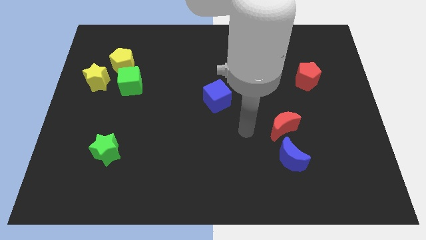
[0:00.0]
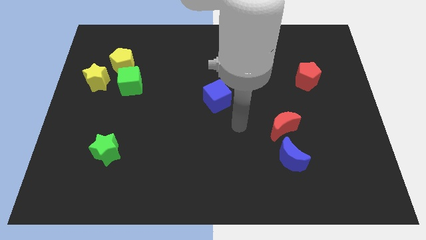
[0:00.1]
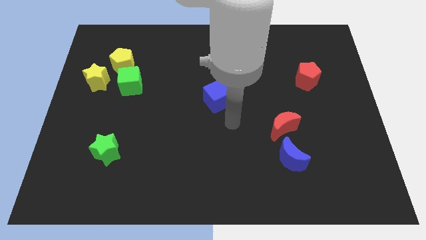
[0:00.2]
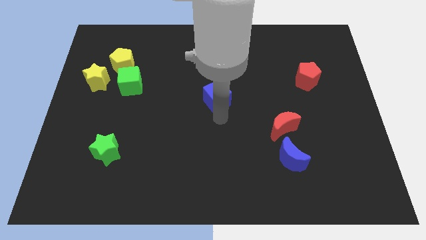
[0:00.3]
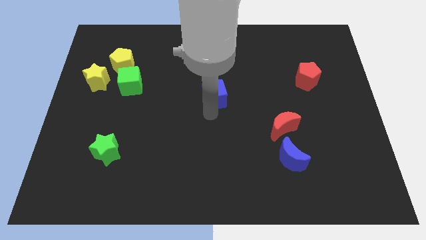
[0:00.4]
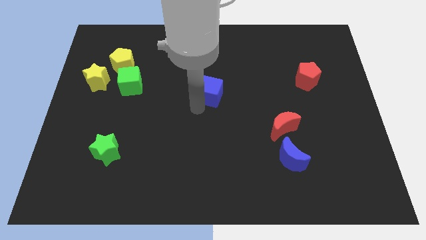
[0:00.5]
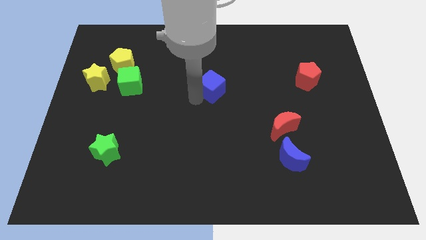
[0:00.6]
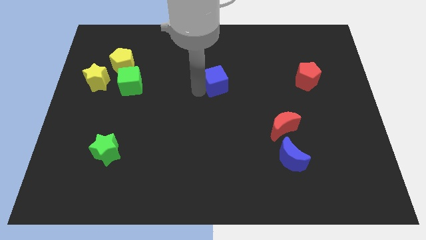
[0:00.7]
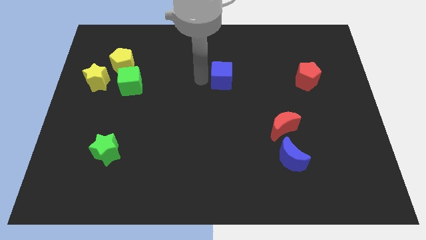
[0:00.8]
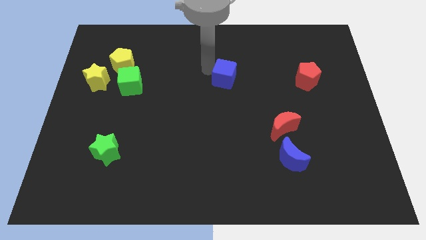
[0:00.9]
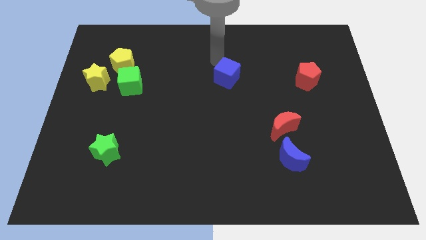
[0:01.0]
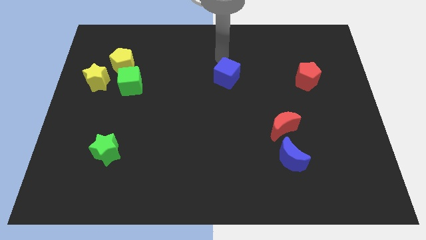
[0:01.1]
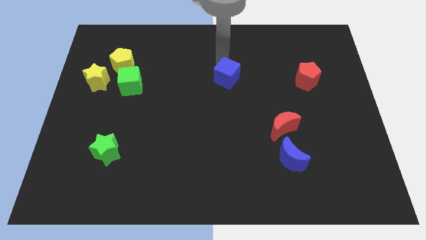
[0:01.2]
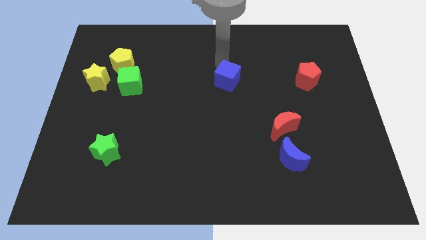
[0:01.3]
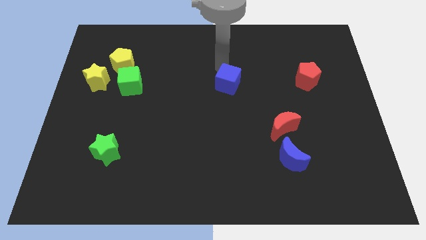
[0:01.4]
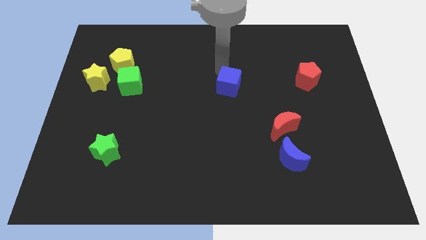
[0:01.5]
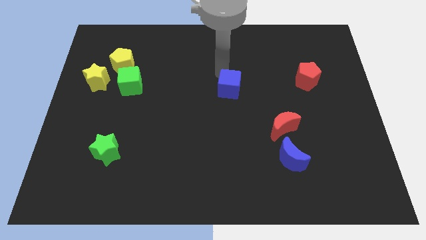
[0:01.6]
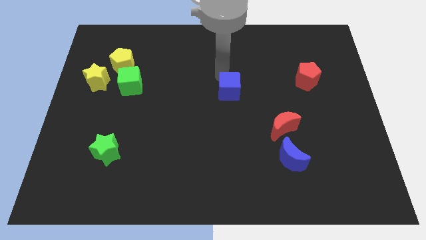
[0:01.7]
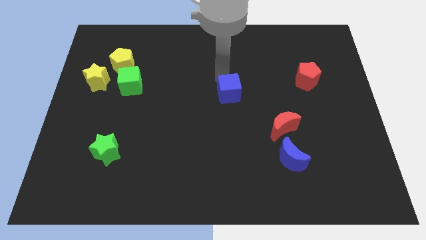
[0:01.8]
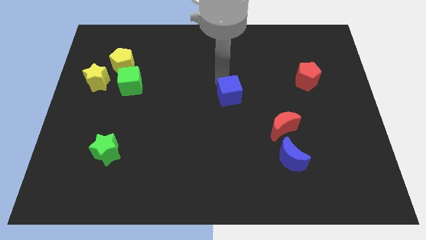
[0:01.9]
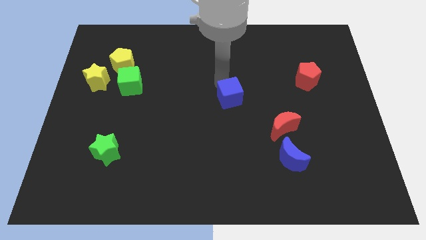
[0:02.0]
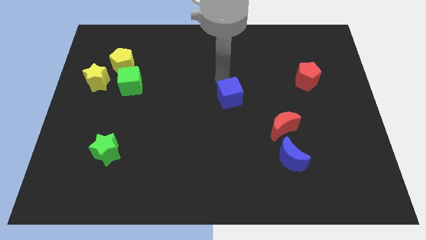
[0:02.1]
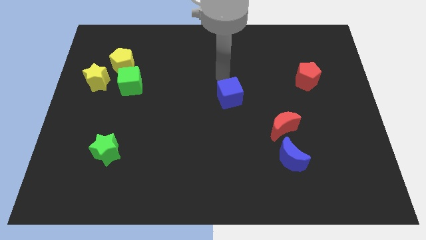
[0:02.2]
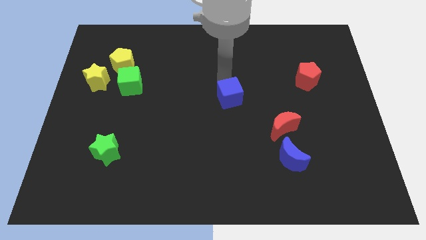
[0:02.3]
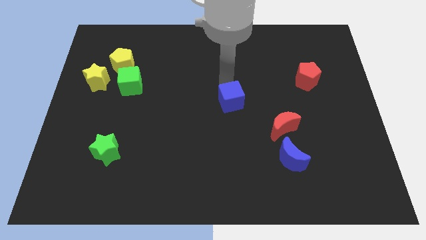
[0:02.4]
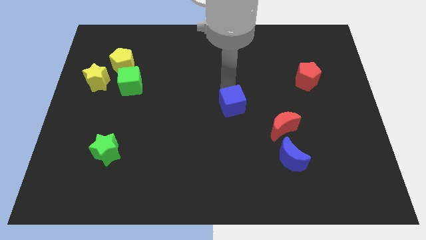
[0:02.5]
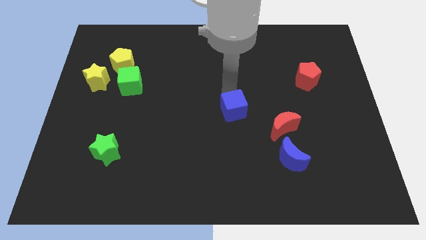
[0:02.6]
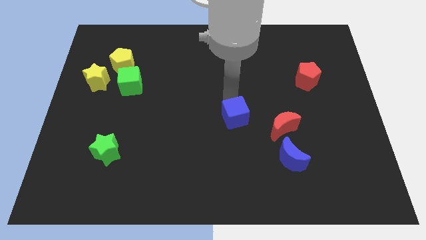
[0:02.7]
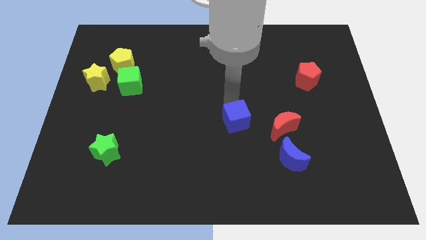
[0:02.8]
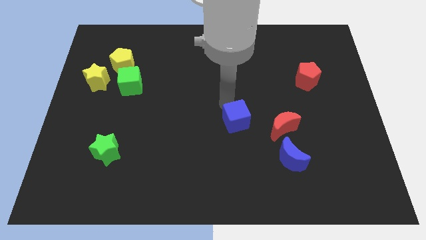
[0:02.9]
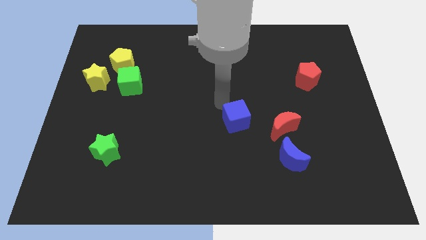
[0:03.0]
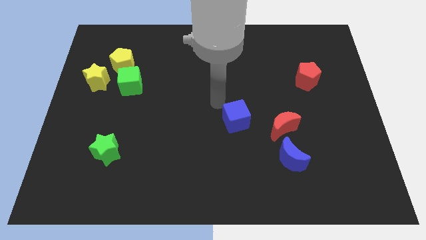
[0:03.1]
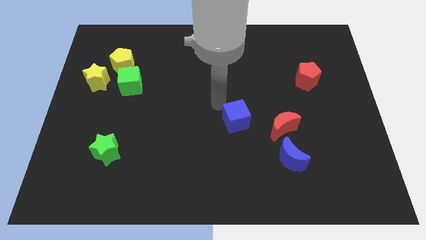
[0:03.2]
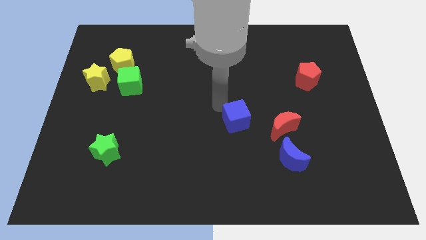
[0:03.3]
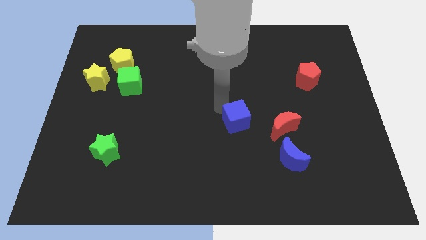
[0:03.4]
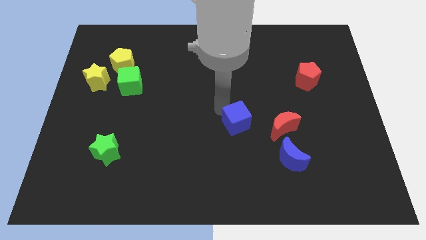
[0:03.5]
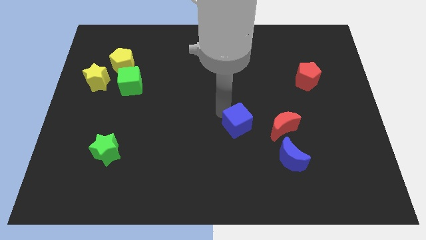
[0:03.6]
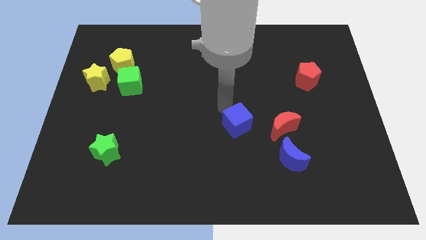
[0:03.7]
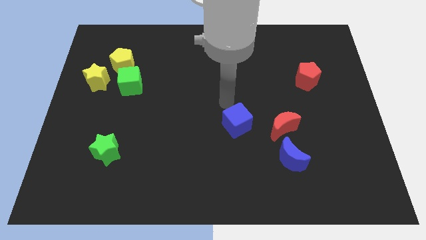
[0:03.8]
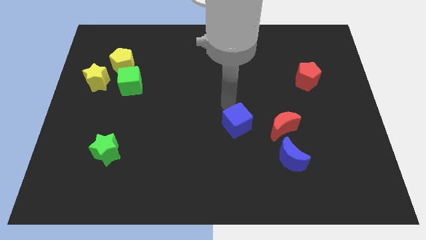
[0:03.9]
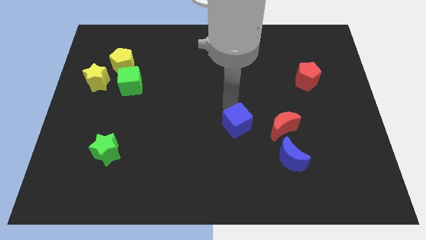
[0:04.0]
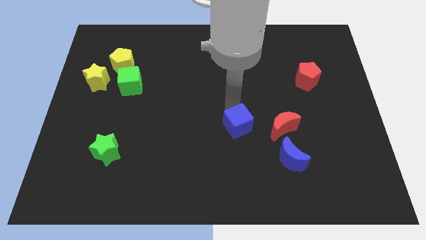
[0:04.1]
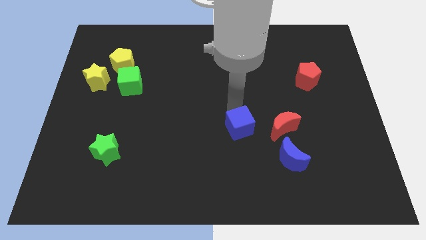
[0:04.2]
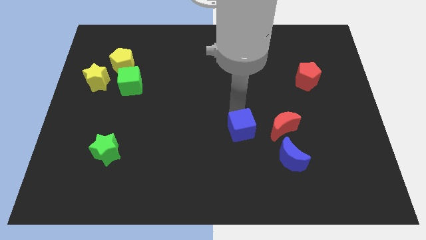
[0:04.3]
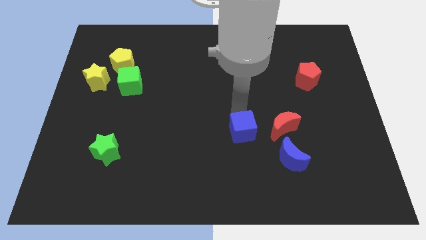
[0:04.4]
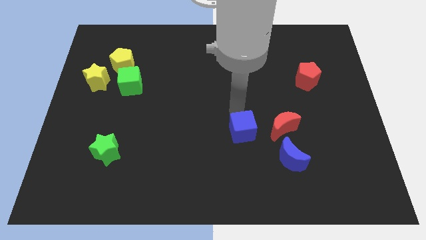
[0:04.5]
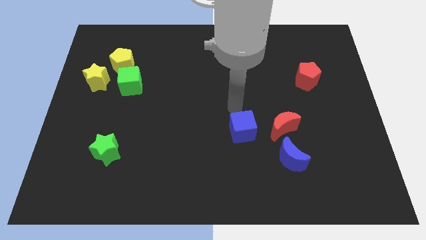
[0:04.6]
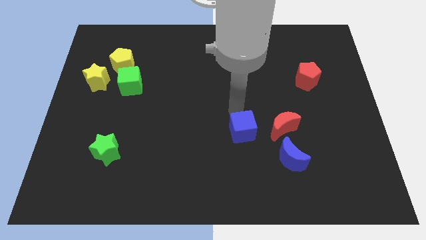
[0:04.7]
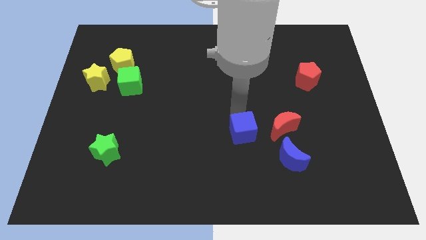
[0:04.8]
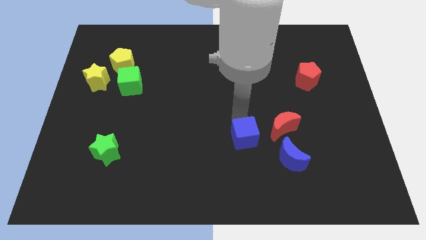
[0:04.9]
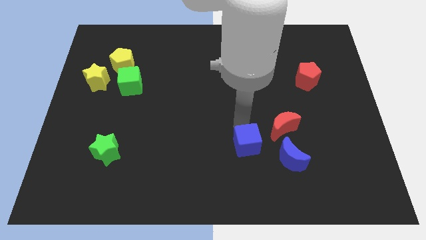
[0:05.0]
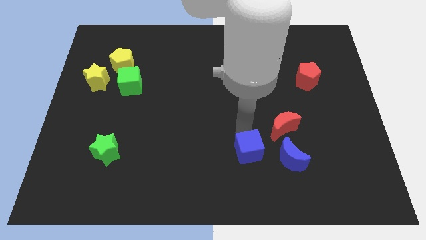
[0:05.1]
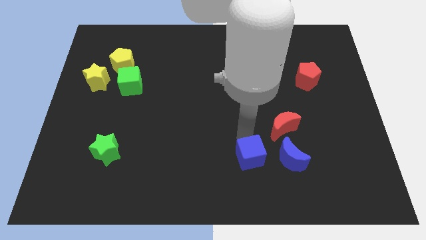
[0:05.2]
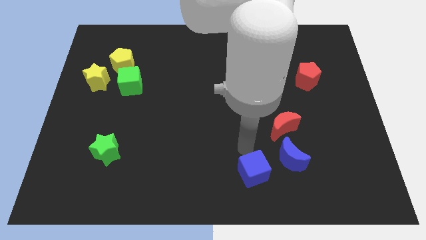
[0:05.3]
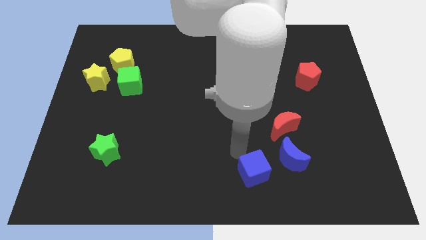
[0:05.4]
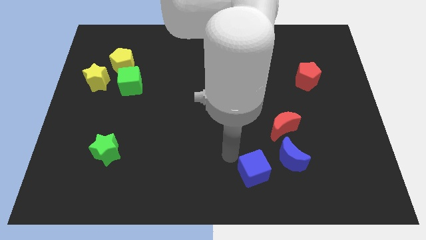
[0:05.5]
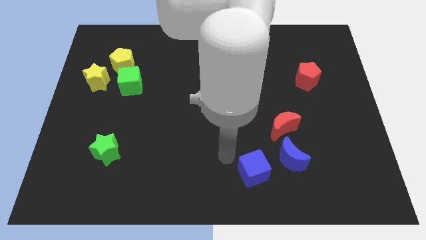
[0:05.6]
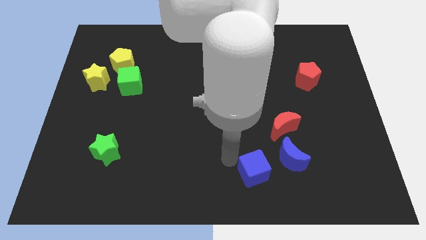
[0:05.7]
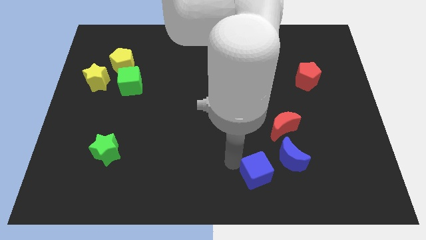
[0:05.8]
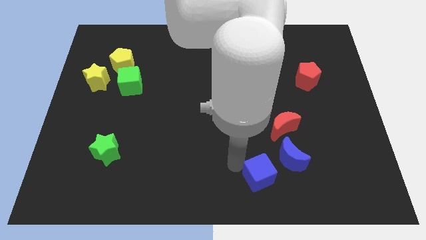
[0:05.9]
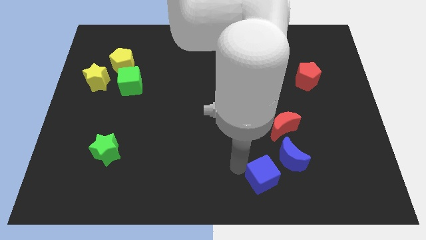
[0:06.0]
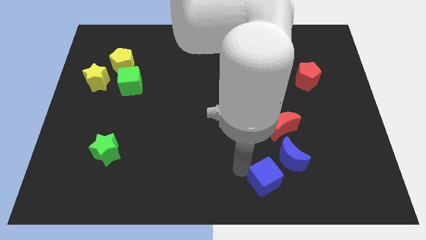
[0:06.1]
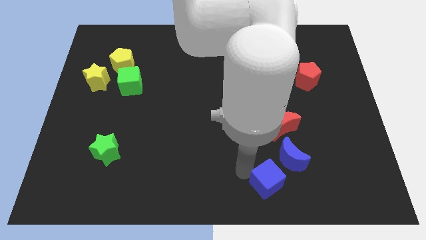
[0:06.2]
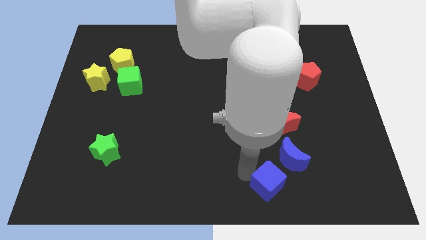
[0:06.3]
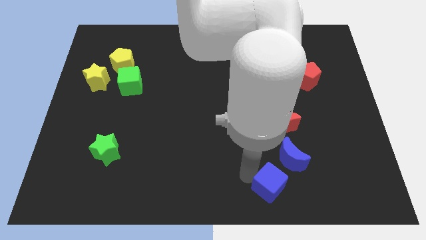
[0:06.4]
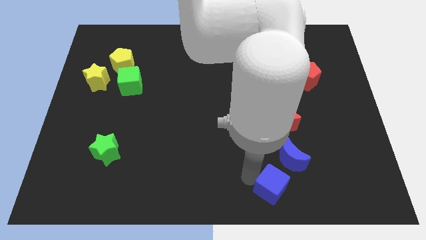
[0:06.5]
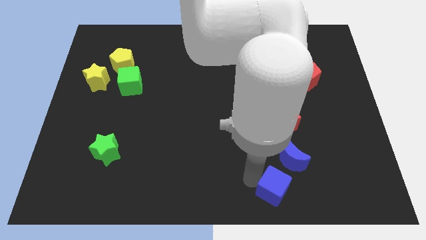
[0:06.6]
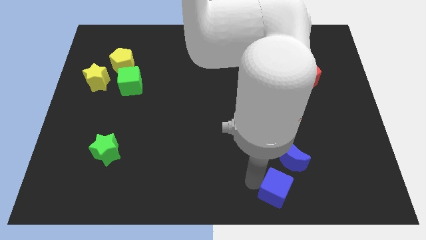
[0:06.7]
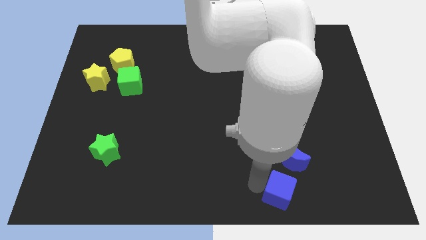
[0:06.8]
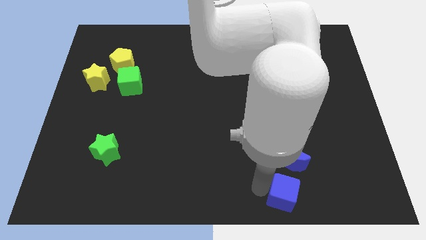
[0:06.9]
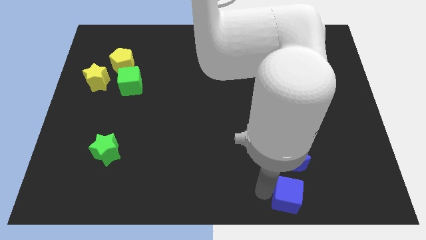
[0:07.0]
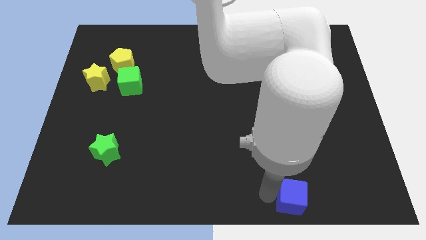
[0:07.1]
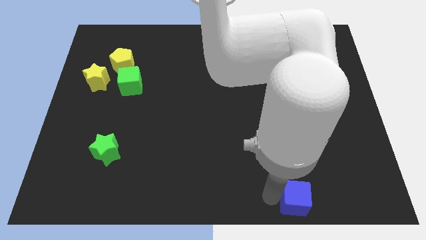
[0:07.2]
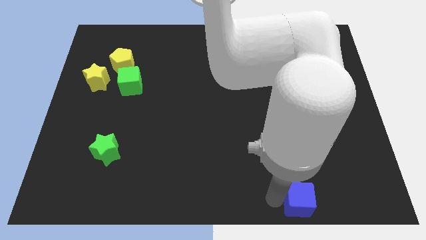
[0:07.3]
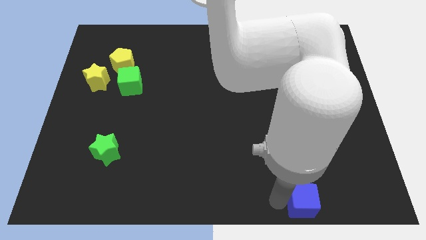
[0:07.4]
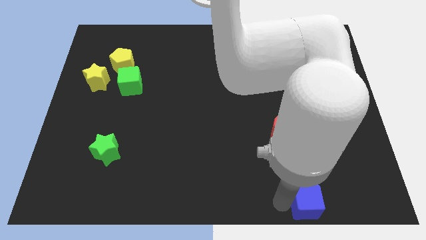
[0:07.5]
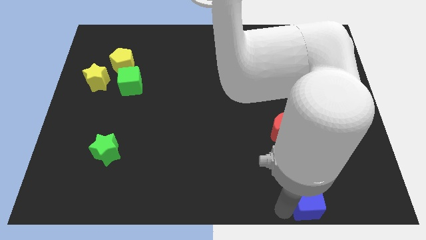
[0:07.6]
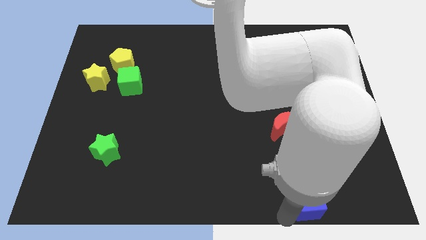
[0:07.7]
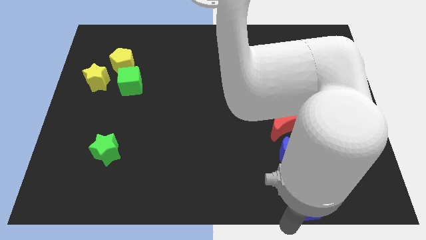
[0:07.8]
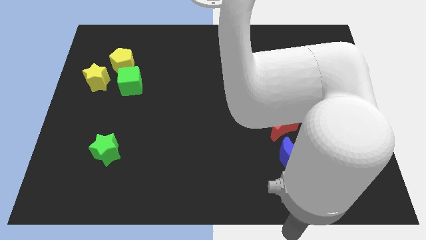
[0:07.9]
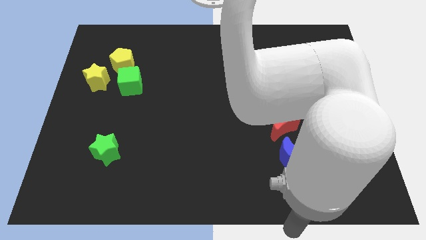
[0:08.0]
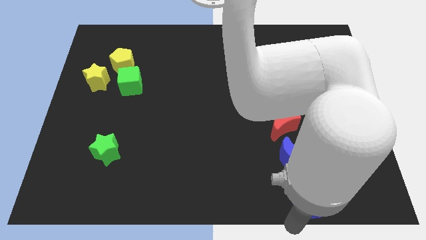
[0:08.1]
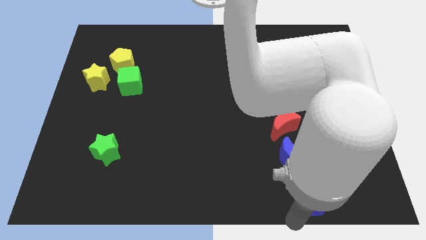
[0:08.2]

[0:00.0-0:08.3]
put the blue cube to the bottom right side of the blue moon
